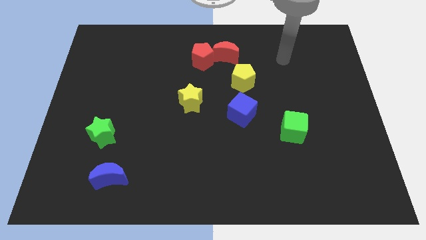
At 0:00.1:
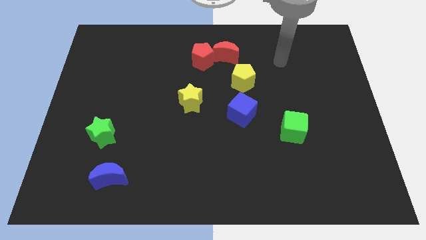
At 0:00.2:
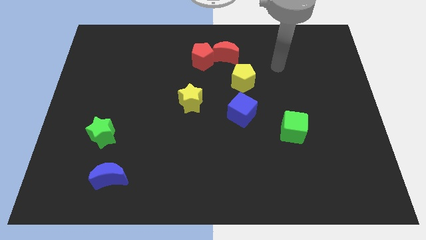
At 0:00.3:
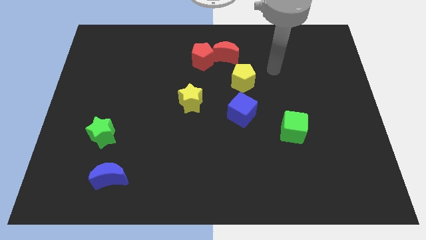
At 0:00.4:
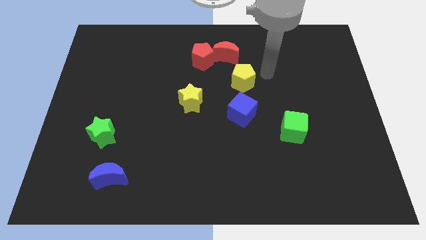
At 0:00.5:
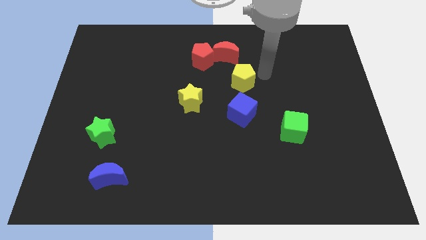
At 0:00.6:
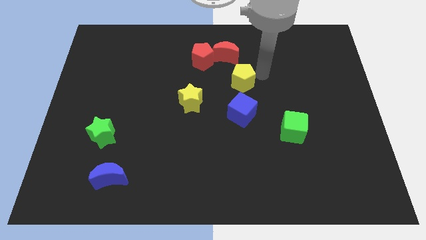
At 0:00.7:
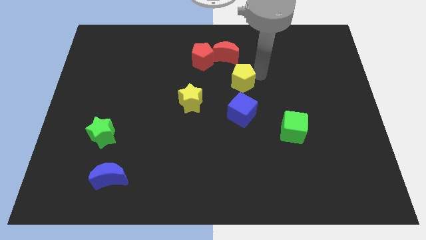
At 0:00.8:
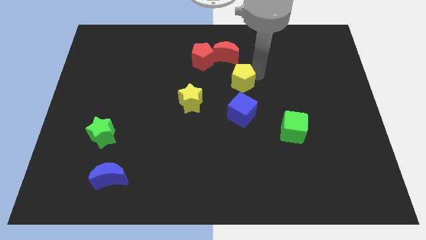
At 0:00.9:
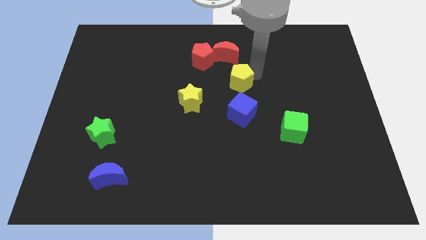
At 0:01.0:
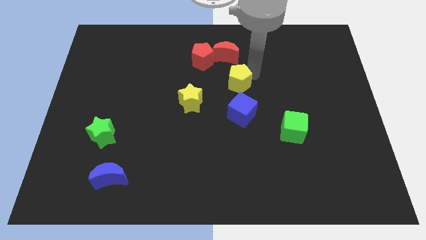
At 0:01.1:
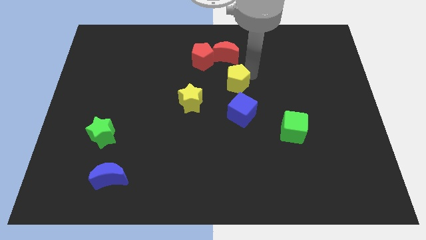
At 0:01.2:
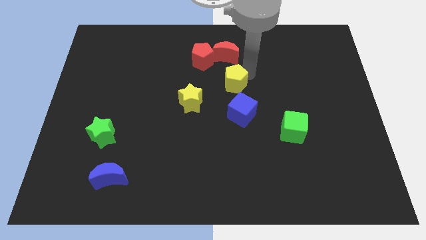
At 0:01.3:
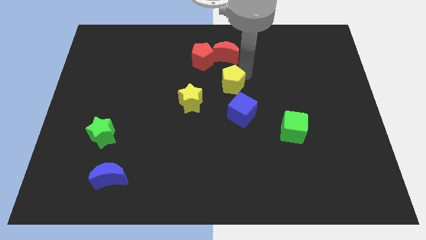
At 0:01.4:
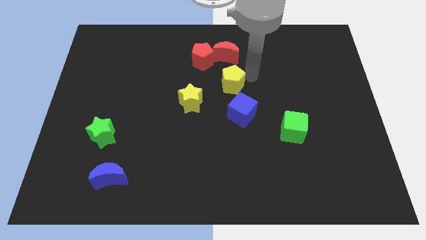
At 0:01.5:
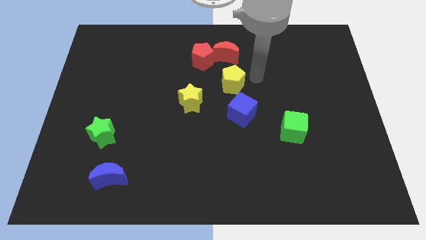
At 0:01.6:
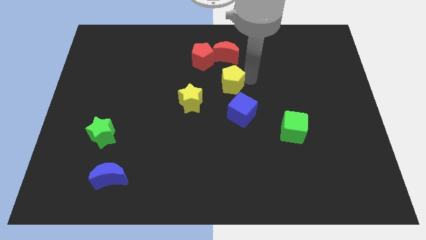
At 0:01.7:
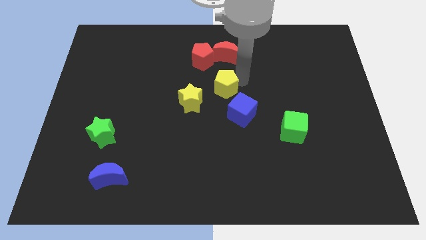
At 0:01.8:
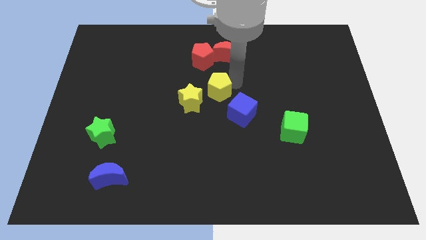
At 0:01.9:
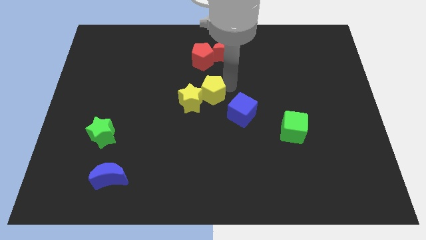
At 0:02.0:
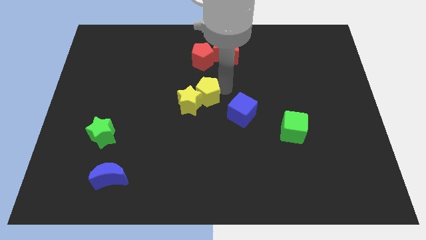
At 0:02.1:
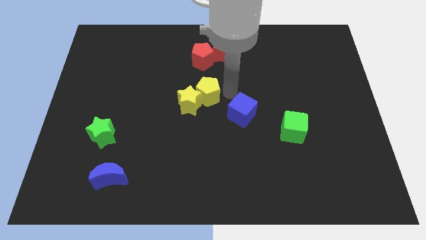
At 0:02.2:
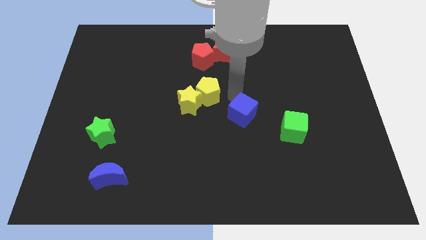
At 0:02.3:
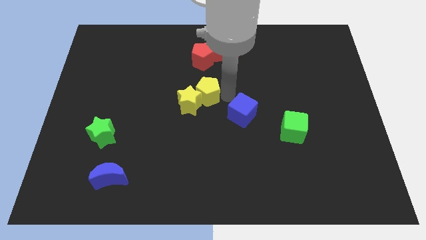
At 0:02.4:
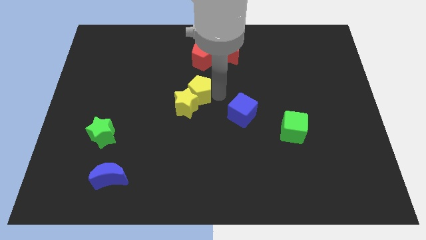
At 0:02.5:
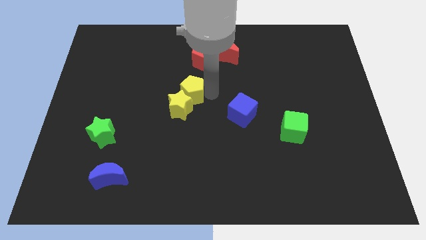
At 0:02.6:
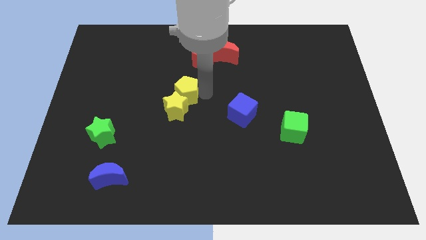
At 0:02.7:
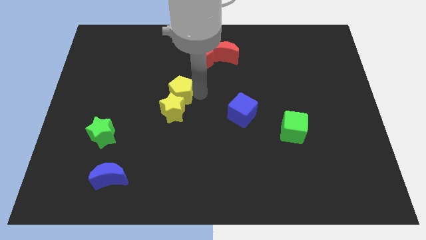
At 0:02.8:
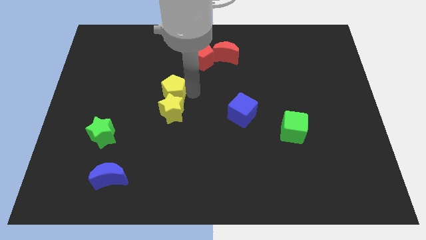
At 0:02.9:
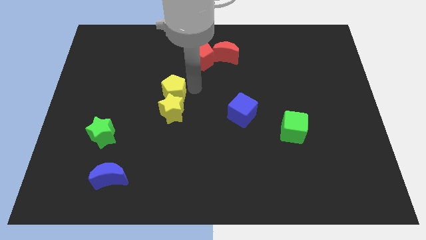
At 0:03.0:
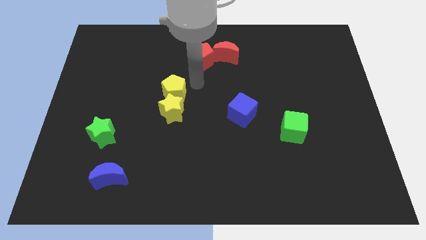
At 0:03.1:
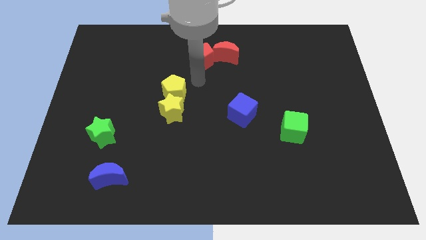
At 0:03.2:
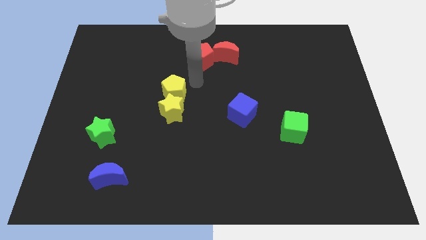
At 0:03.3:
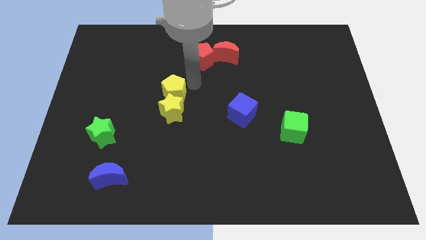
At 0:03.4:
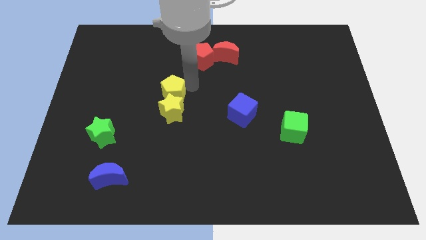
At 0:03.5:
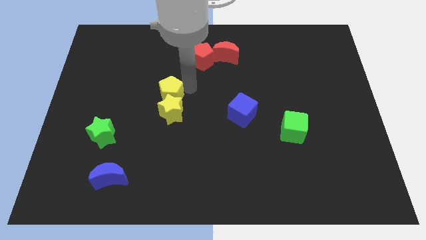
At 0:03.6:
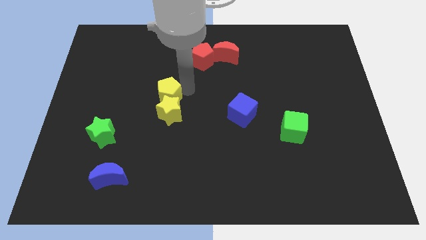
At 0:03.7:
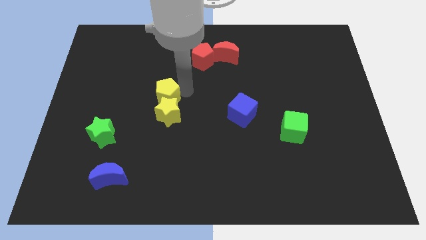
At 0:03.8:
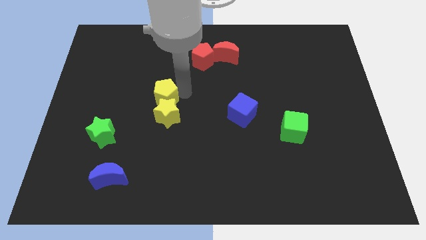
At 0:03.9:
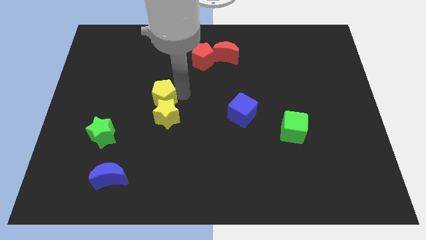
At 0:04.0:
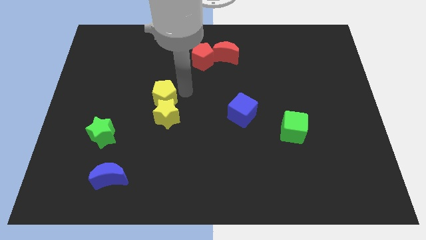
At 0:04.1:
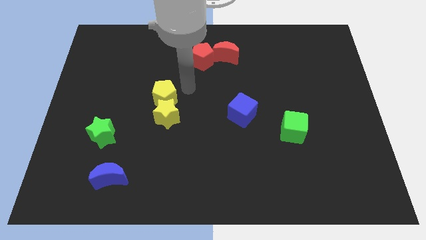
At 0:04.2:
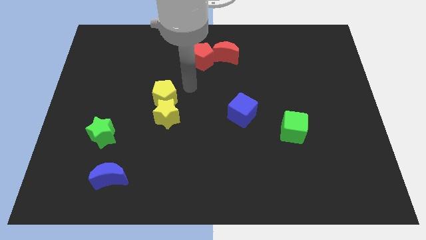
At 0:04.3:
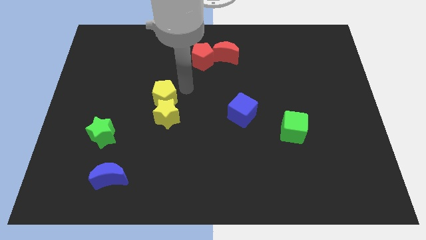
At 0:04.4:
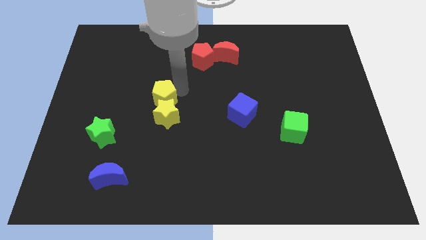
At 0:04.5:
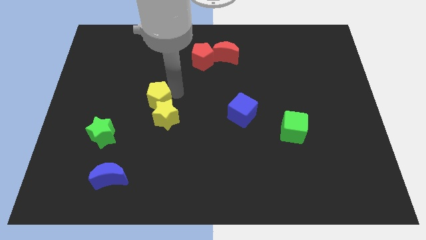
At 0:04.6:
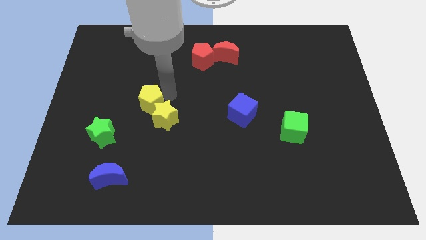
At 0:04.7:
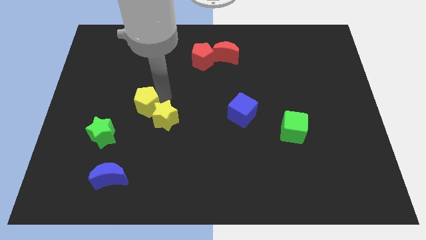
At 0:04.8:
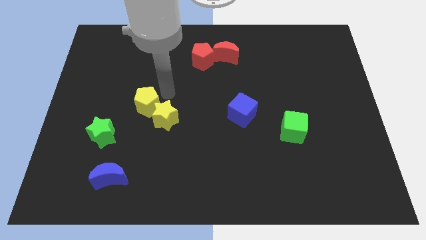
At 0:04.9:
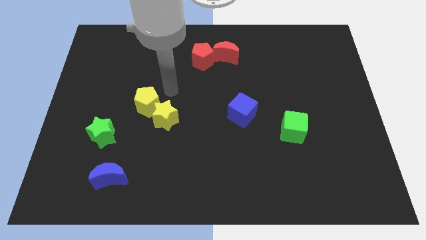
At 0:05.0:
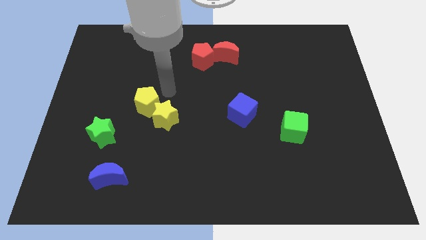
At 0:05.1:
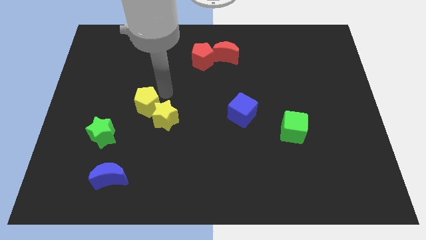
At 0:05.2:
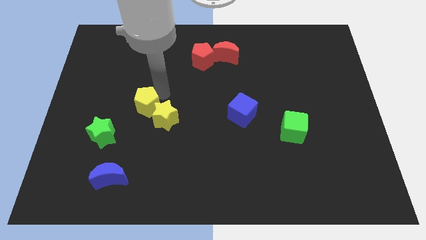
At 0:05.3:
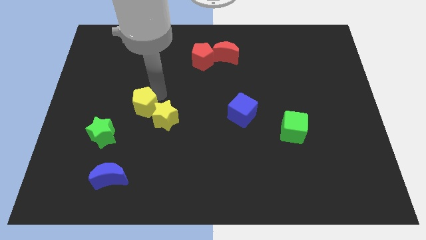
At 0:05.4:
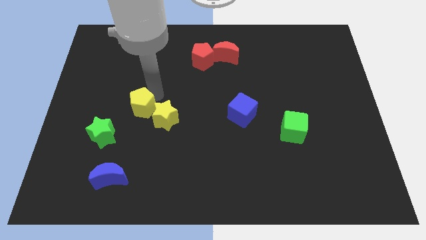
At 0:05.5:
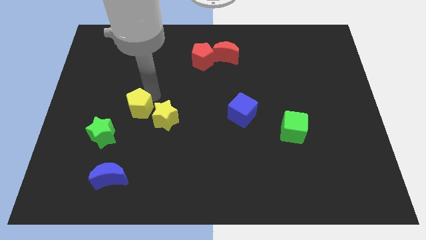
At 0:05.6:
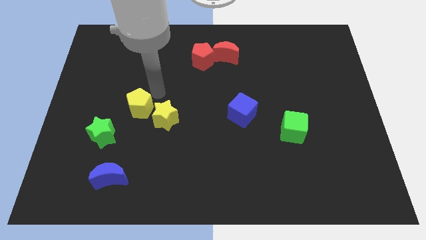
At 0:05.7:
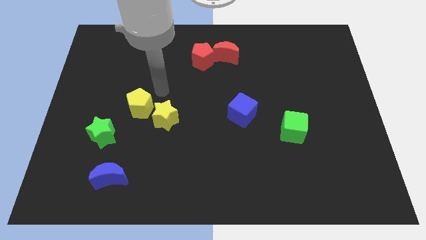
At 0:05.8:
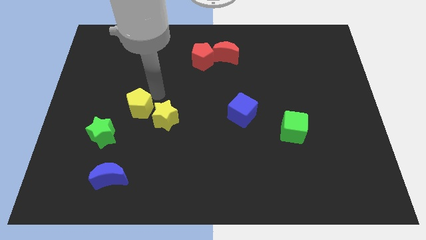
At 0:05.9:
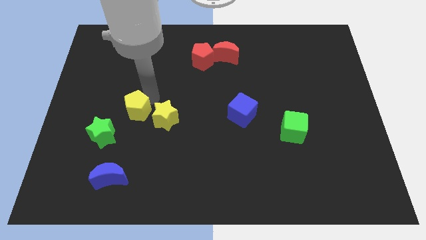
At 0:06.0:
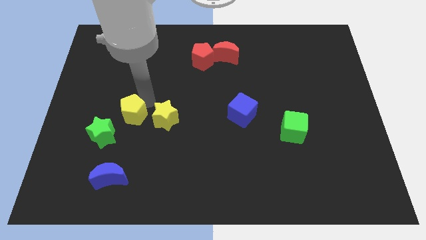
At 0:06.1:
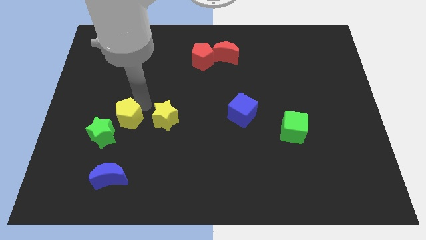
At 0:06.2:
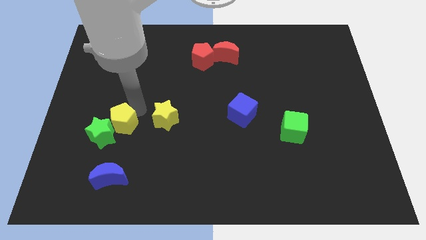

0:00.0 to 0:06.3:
move the yellow pentagon next to the green star
